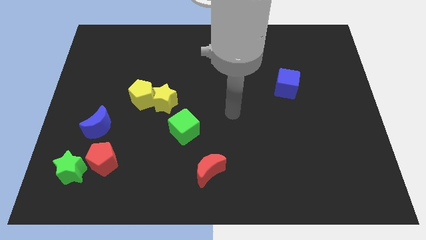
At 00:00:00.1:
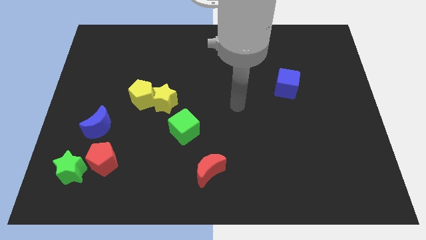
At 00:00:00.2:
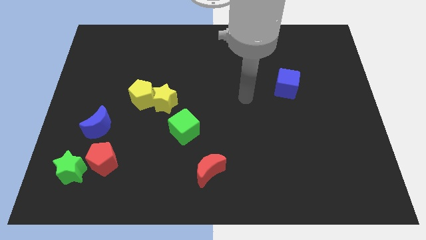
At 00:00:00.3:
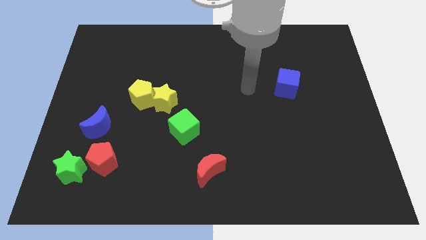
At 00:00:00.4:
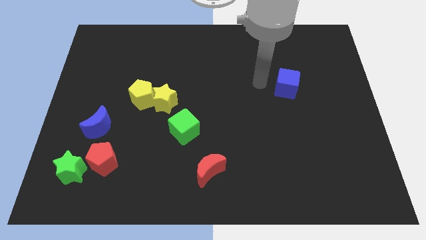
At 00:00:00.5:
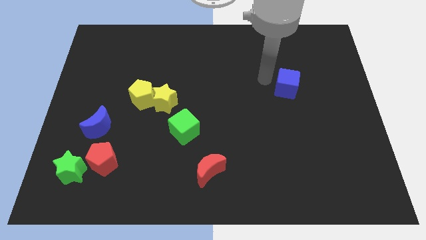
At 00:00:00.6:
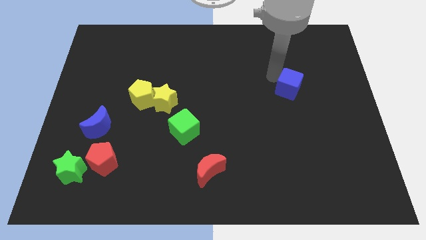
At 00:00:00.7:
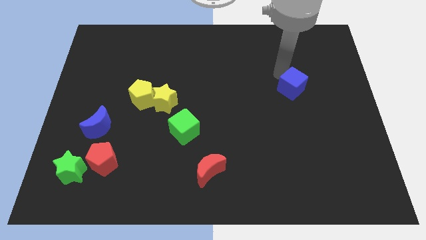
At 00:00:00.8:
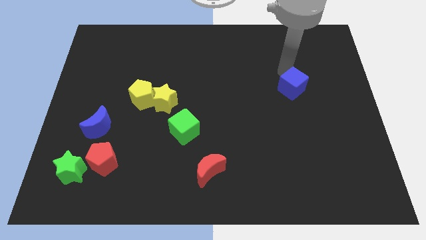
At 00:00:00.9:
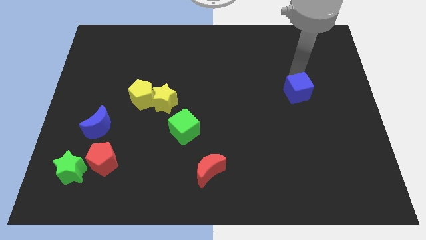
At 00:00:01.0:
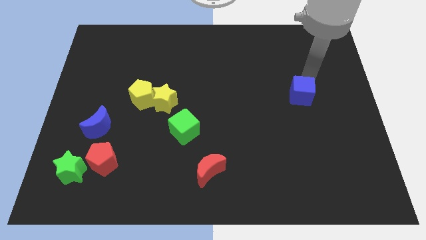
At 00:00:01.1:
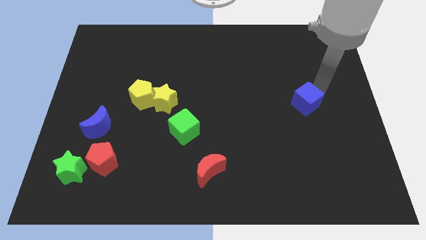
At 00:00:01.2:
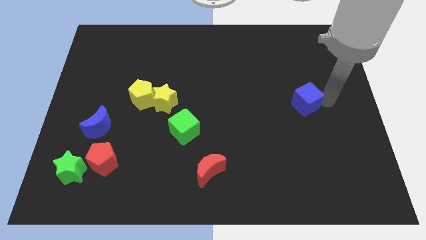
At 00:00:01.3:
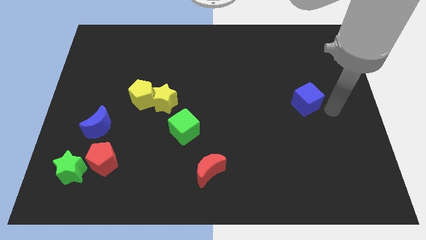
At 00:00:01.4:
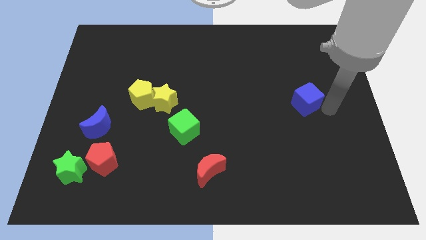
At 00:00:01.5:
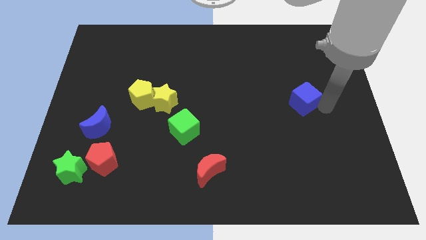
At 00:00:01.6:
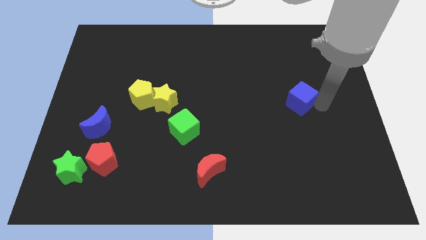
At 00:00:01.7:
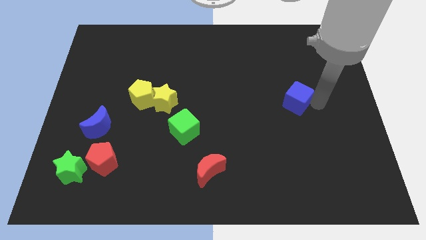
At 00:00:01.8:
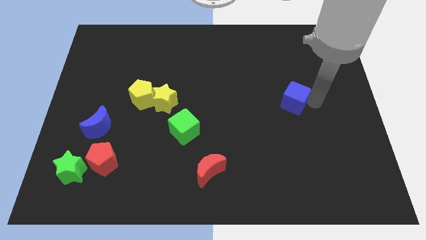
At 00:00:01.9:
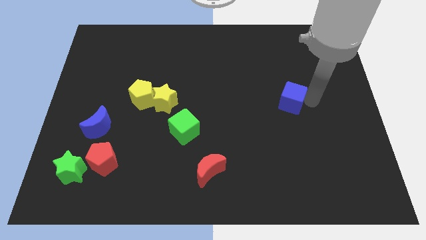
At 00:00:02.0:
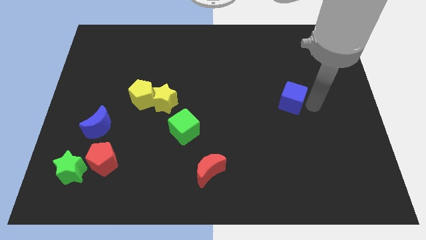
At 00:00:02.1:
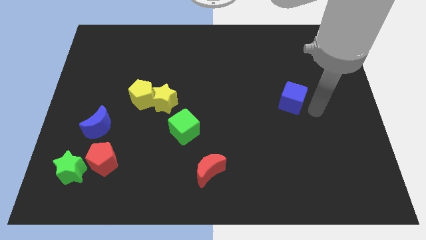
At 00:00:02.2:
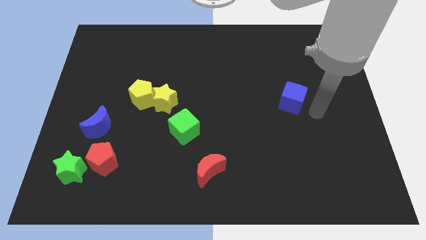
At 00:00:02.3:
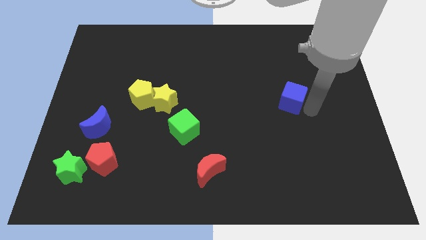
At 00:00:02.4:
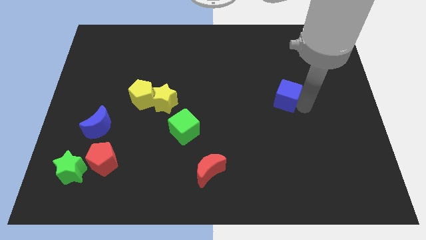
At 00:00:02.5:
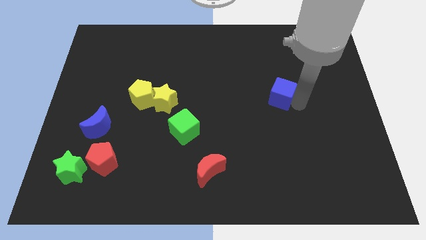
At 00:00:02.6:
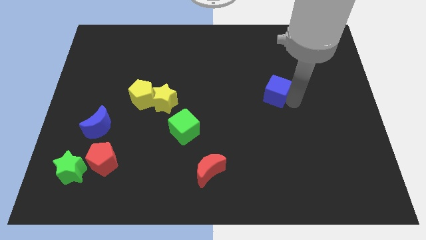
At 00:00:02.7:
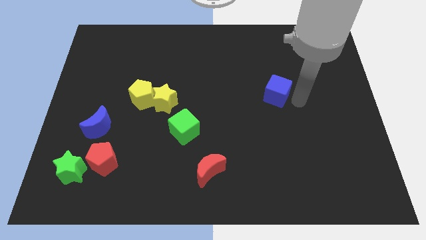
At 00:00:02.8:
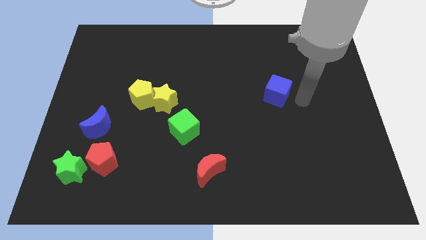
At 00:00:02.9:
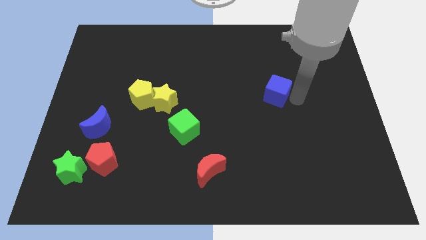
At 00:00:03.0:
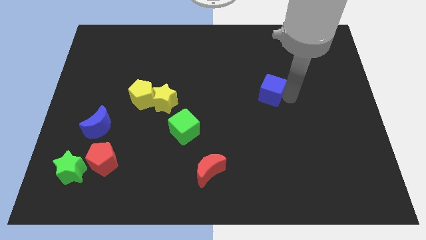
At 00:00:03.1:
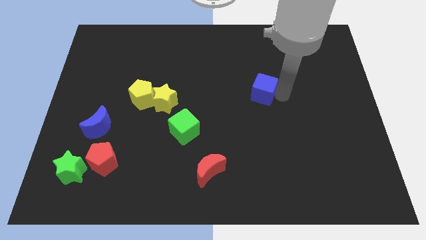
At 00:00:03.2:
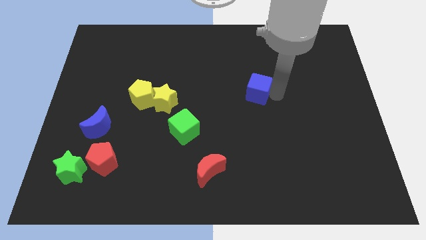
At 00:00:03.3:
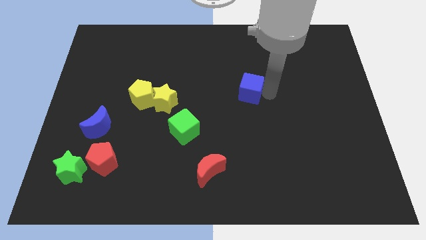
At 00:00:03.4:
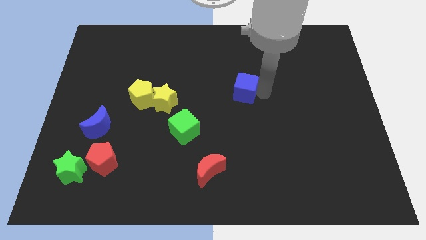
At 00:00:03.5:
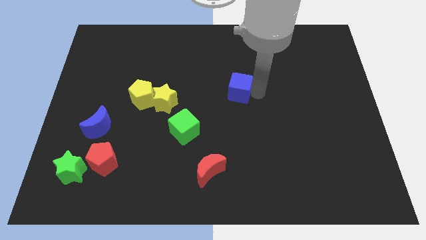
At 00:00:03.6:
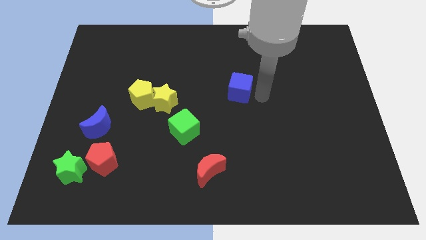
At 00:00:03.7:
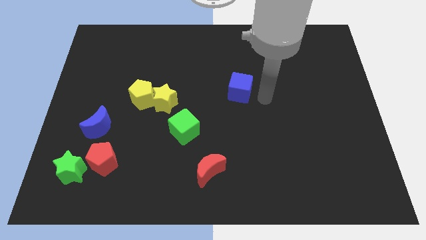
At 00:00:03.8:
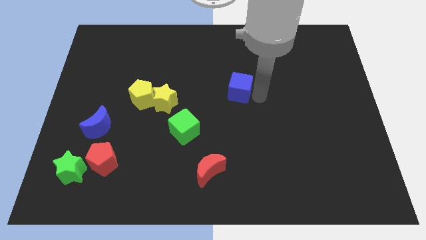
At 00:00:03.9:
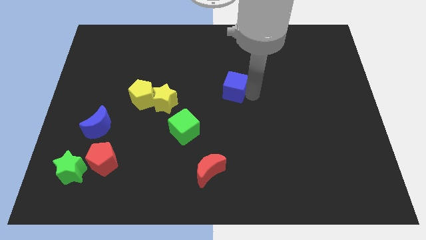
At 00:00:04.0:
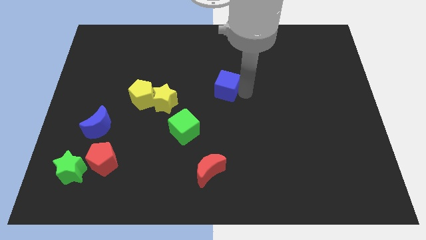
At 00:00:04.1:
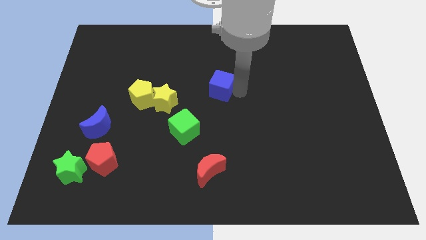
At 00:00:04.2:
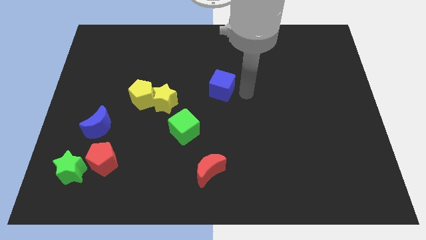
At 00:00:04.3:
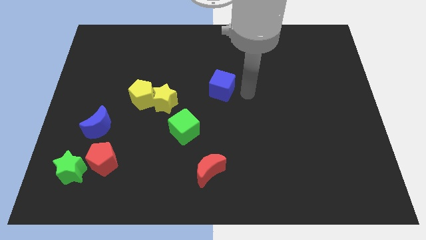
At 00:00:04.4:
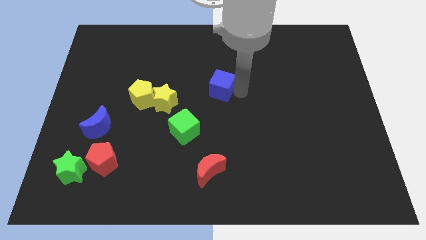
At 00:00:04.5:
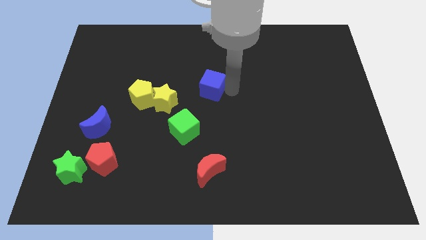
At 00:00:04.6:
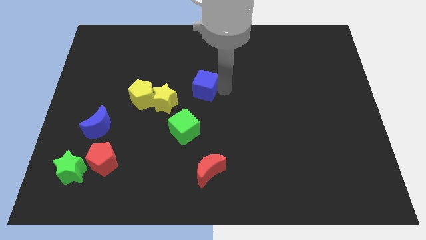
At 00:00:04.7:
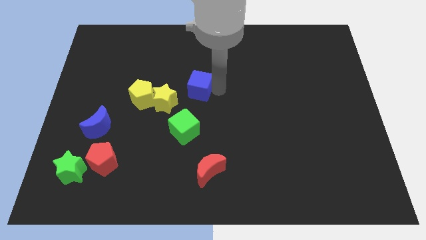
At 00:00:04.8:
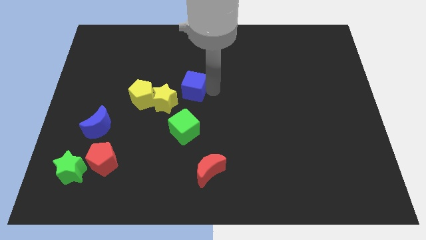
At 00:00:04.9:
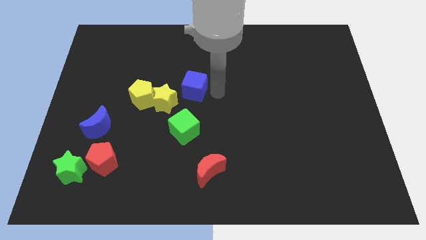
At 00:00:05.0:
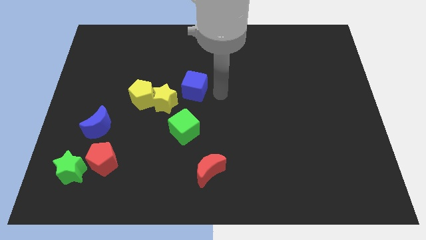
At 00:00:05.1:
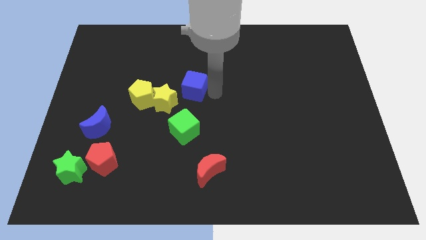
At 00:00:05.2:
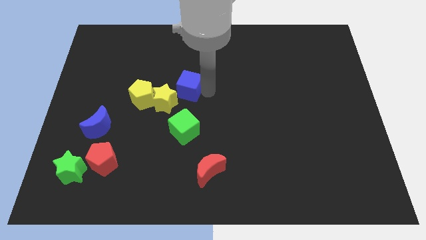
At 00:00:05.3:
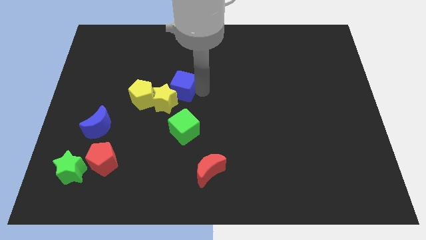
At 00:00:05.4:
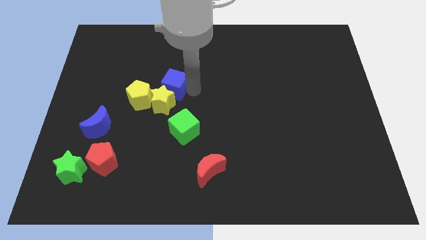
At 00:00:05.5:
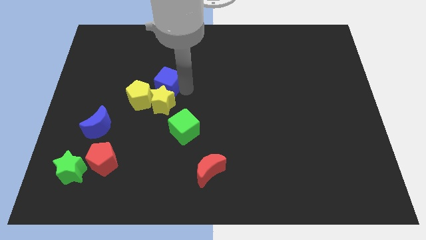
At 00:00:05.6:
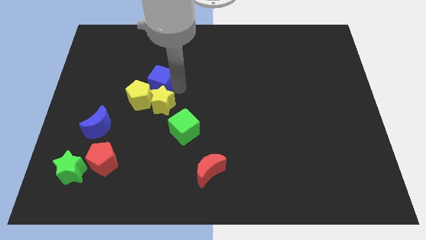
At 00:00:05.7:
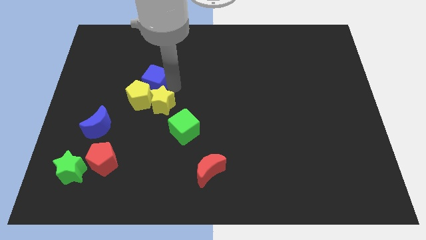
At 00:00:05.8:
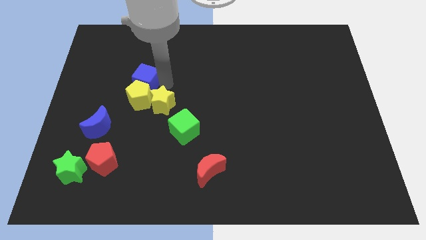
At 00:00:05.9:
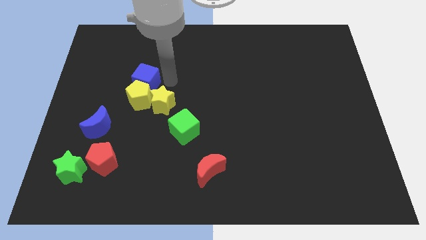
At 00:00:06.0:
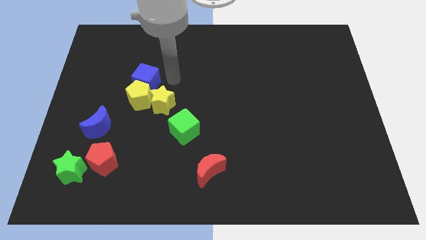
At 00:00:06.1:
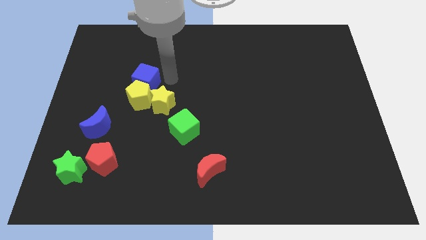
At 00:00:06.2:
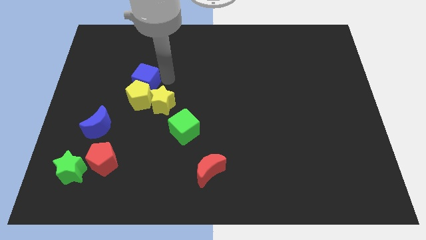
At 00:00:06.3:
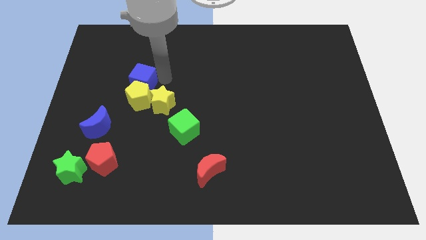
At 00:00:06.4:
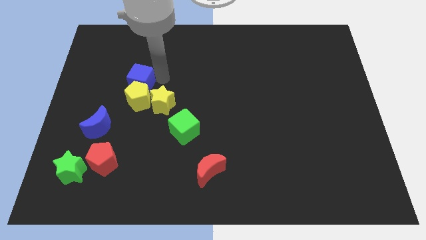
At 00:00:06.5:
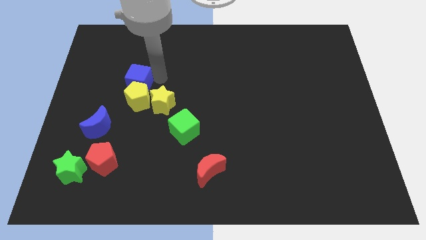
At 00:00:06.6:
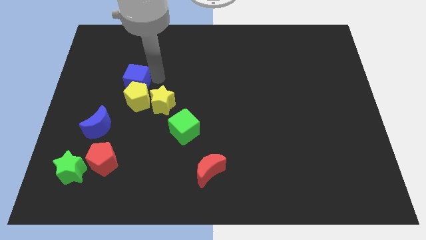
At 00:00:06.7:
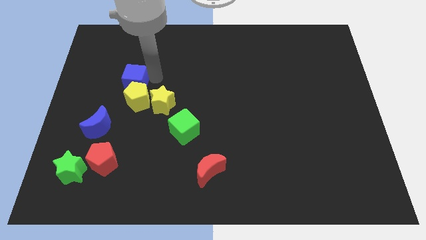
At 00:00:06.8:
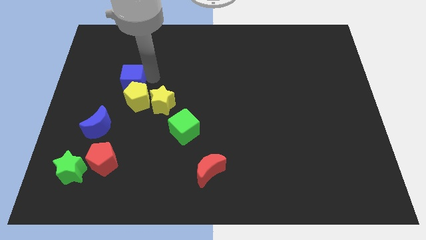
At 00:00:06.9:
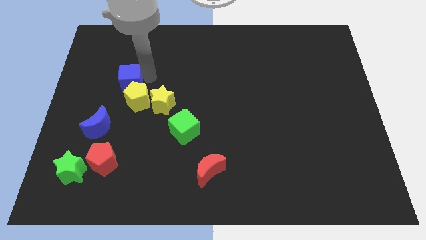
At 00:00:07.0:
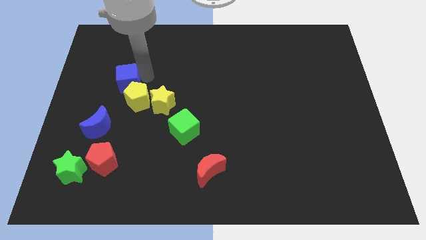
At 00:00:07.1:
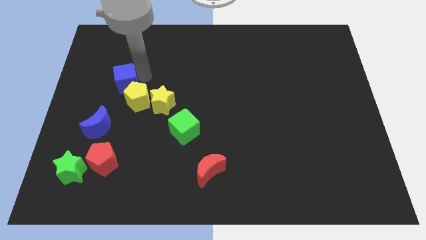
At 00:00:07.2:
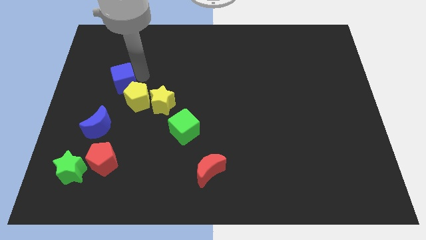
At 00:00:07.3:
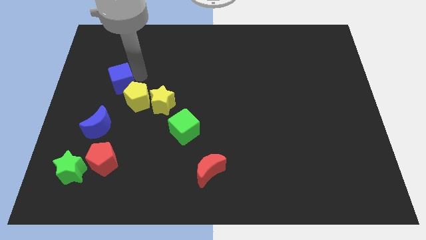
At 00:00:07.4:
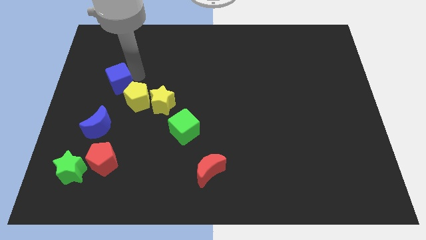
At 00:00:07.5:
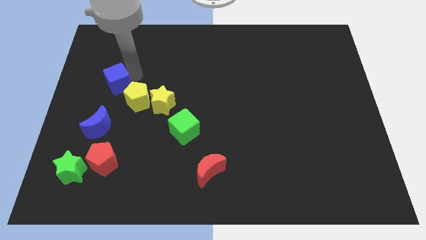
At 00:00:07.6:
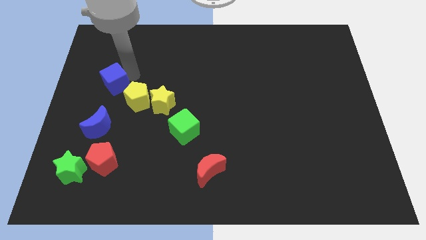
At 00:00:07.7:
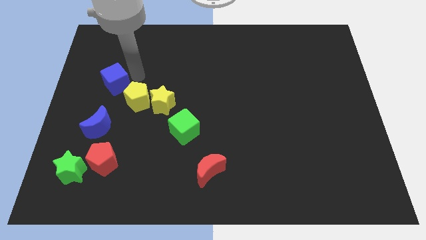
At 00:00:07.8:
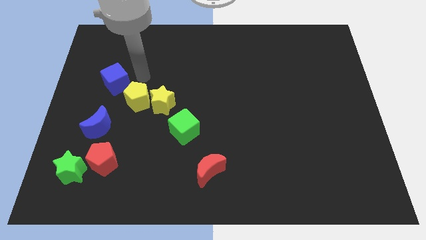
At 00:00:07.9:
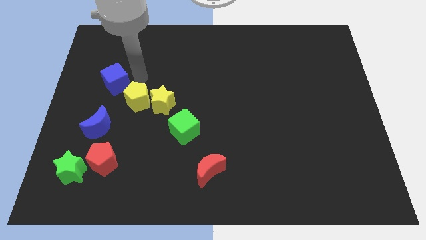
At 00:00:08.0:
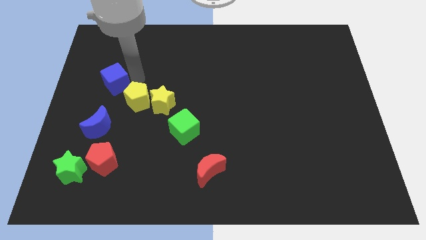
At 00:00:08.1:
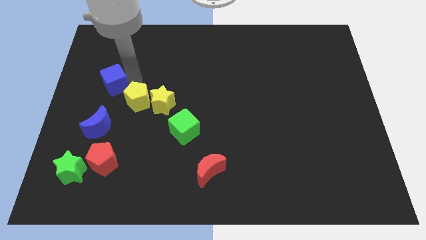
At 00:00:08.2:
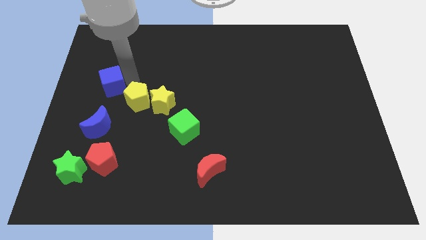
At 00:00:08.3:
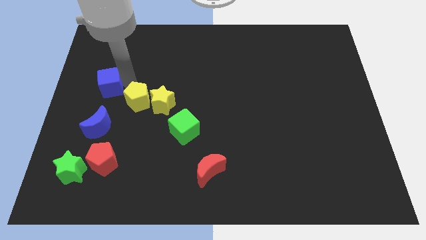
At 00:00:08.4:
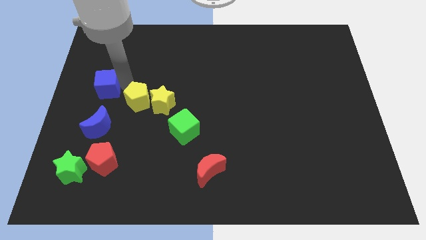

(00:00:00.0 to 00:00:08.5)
slide the blue cube to the left side
